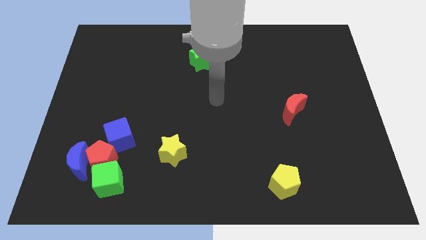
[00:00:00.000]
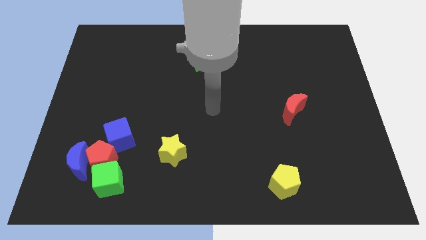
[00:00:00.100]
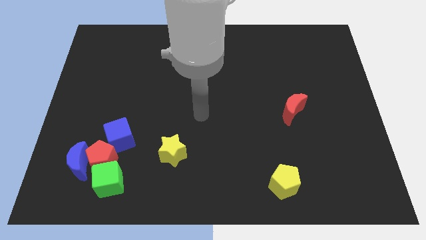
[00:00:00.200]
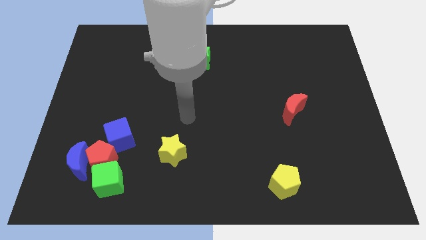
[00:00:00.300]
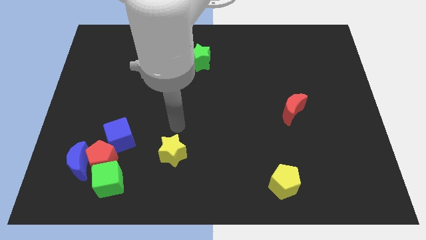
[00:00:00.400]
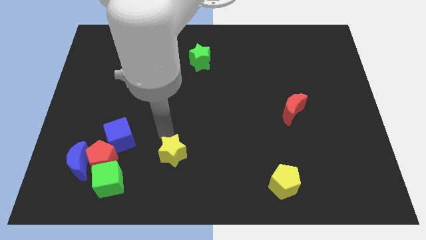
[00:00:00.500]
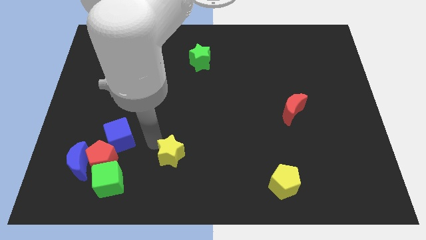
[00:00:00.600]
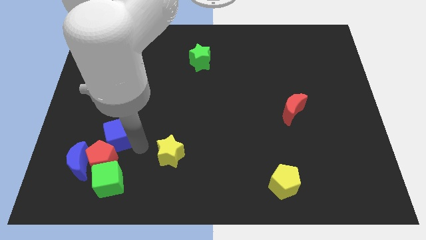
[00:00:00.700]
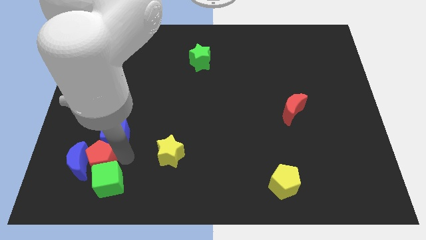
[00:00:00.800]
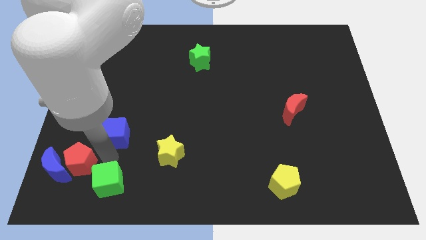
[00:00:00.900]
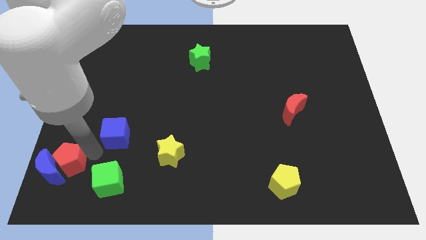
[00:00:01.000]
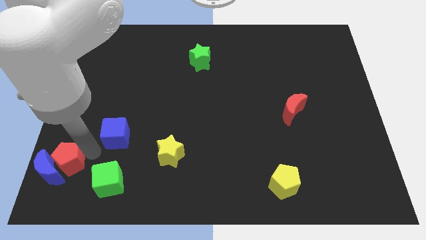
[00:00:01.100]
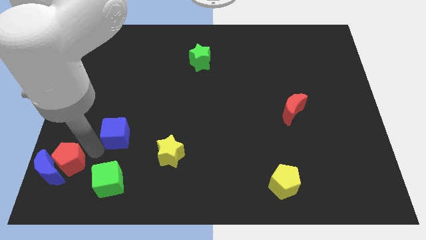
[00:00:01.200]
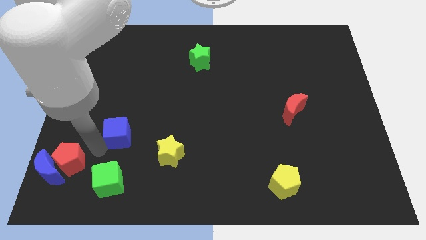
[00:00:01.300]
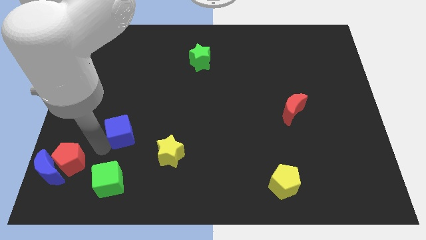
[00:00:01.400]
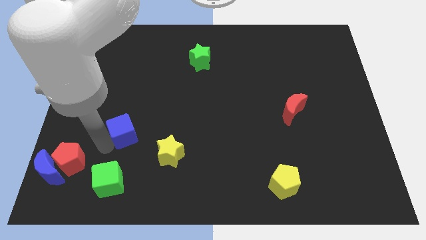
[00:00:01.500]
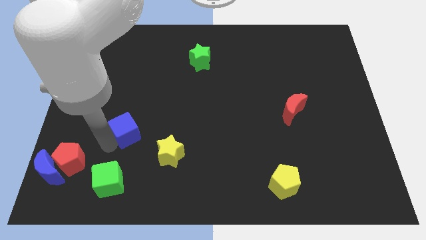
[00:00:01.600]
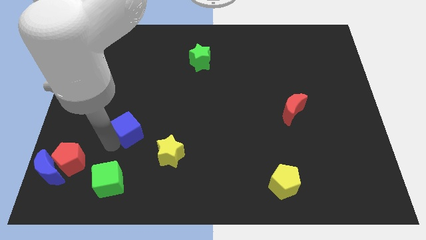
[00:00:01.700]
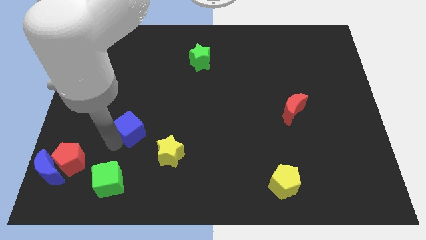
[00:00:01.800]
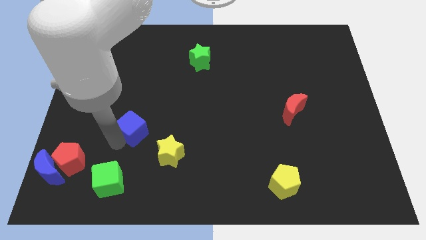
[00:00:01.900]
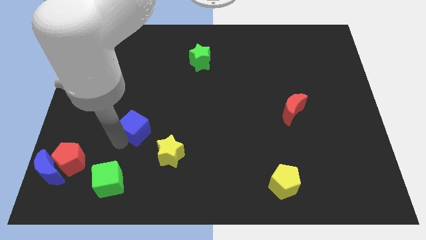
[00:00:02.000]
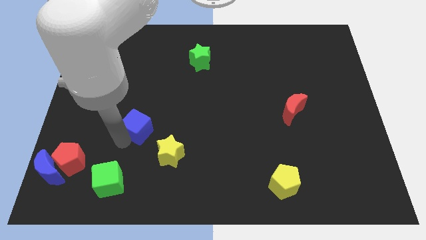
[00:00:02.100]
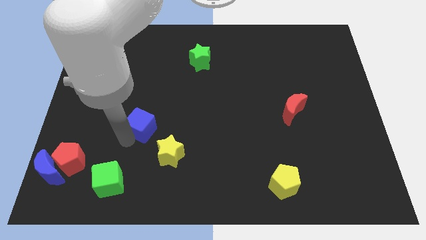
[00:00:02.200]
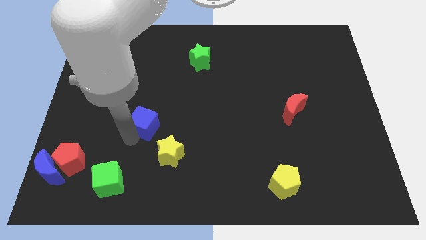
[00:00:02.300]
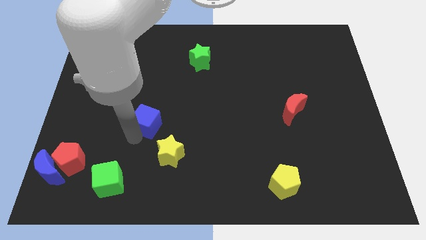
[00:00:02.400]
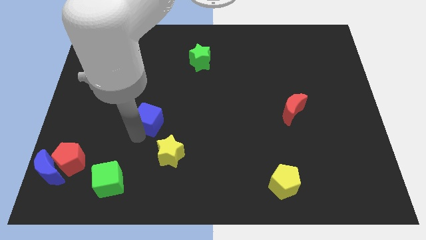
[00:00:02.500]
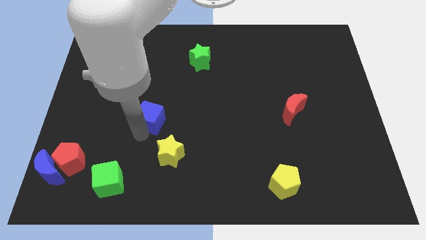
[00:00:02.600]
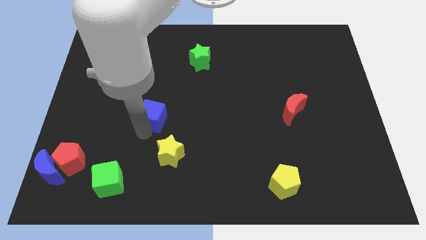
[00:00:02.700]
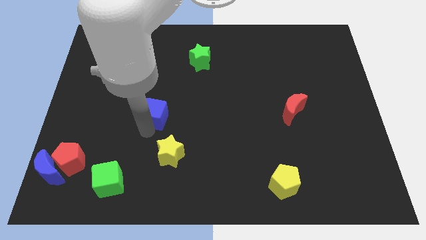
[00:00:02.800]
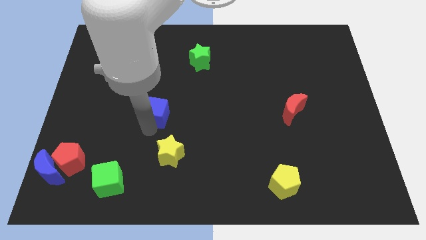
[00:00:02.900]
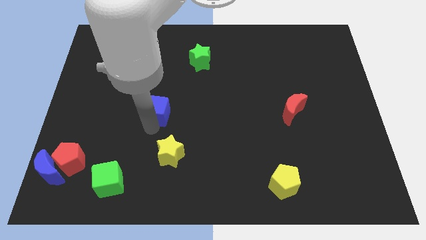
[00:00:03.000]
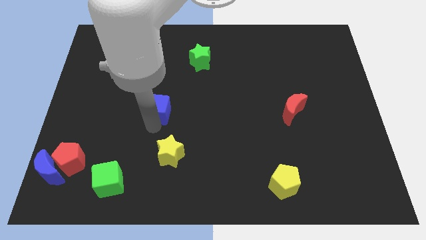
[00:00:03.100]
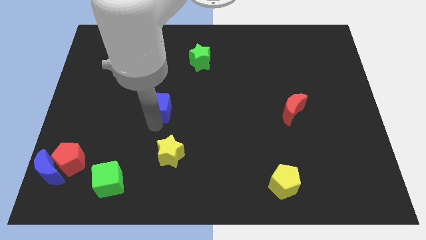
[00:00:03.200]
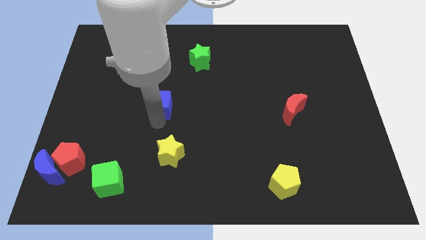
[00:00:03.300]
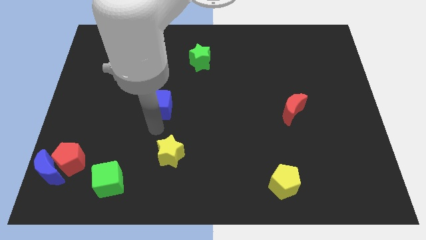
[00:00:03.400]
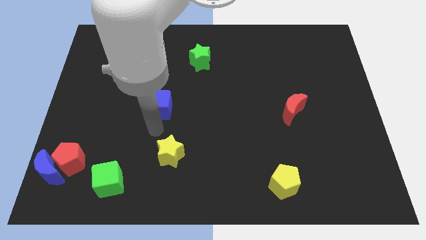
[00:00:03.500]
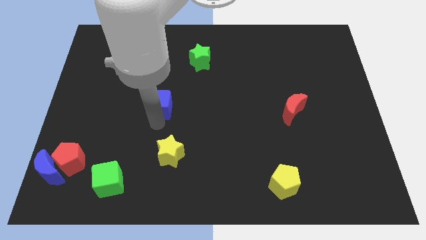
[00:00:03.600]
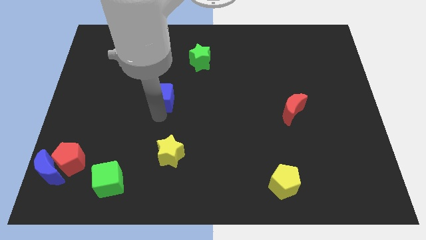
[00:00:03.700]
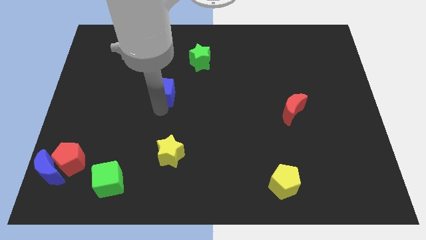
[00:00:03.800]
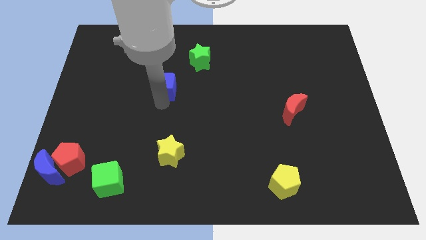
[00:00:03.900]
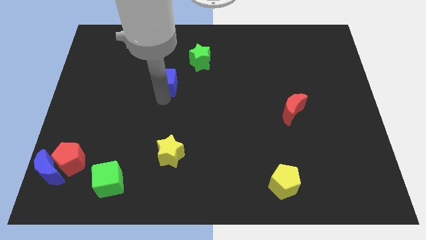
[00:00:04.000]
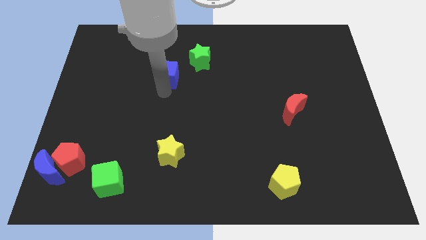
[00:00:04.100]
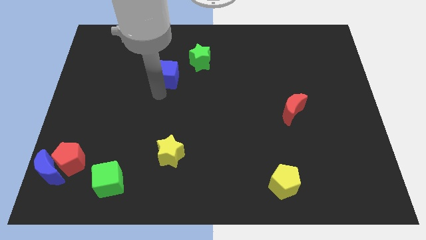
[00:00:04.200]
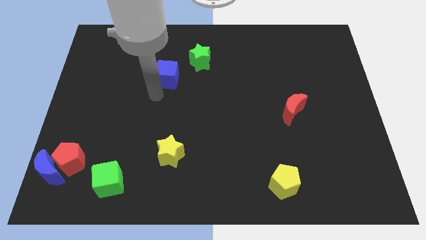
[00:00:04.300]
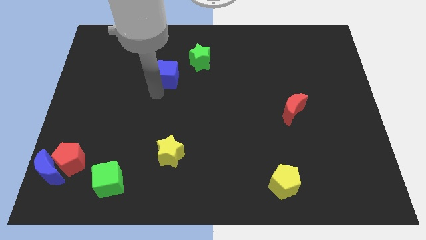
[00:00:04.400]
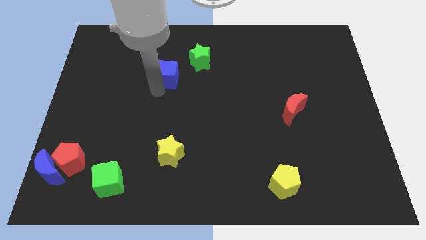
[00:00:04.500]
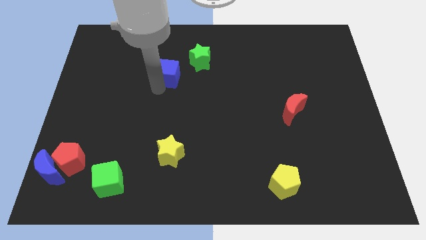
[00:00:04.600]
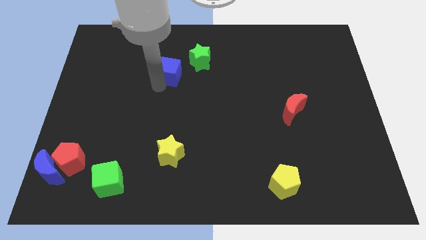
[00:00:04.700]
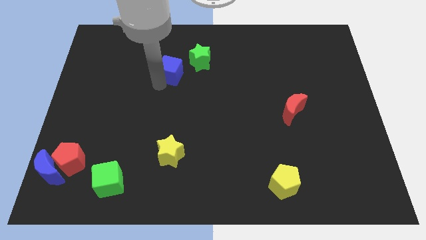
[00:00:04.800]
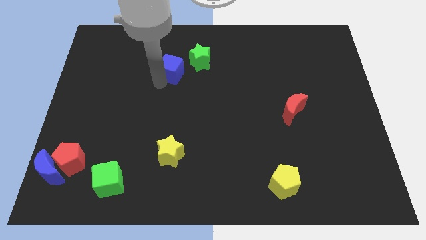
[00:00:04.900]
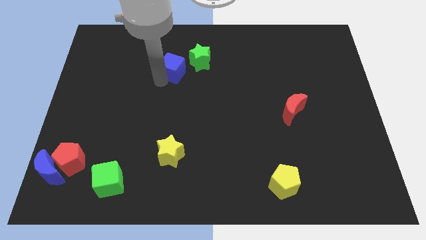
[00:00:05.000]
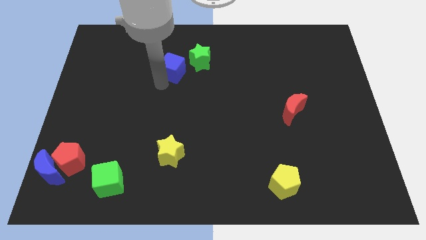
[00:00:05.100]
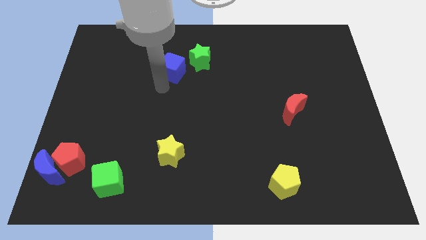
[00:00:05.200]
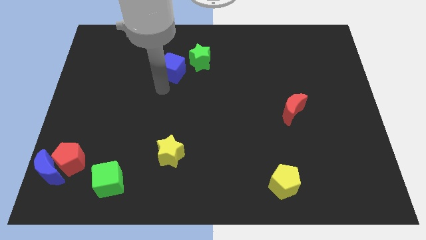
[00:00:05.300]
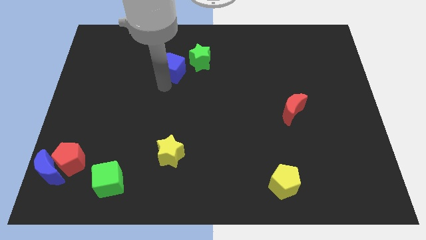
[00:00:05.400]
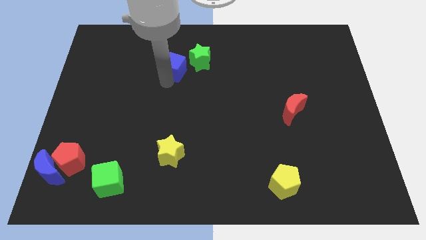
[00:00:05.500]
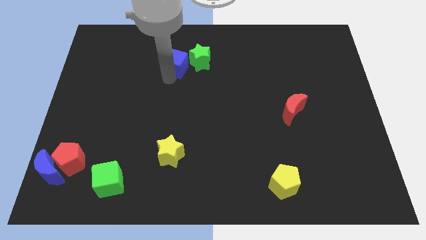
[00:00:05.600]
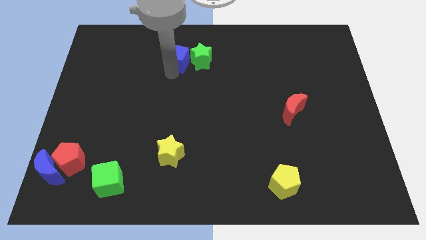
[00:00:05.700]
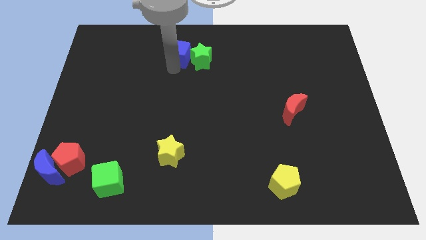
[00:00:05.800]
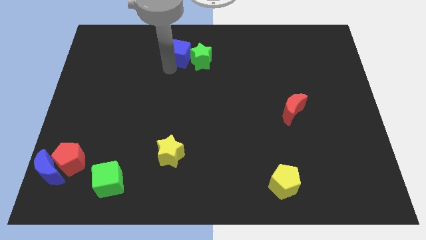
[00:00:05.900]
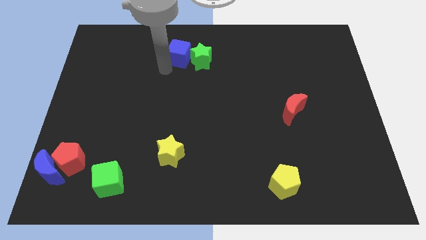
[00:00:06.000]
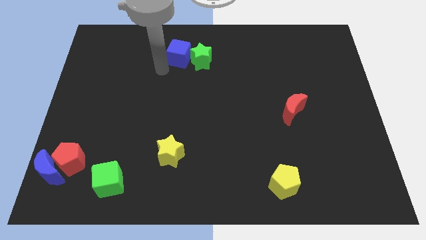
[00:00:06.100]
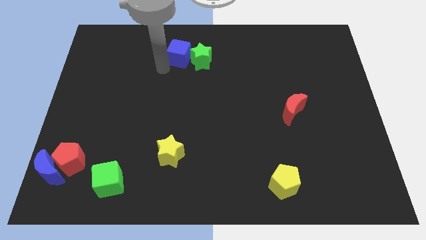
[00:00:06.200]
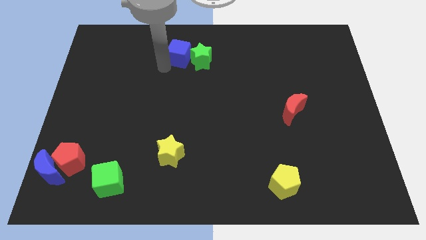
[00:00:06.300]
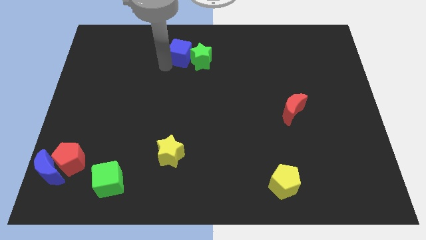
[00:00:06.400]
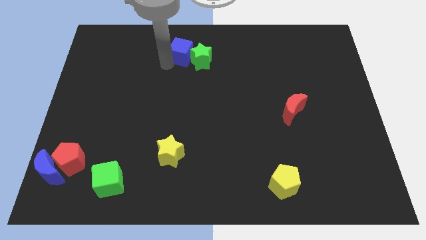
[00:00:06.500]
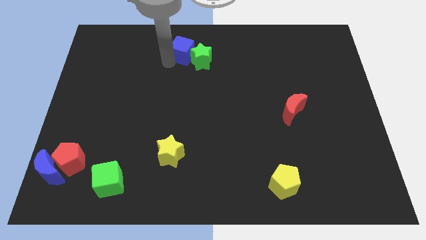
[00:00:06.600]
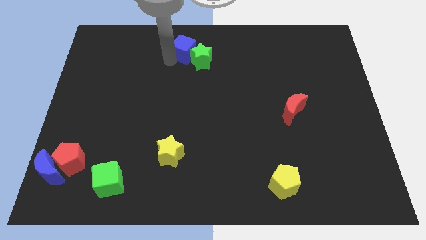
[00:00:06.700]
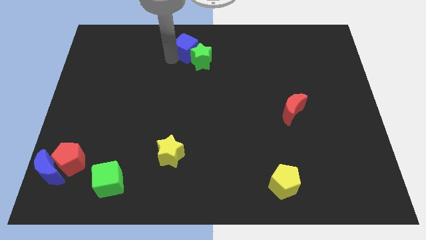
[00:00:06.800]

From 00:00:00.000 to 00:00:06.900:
slide the blue cube to the top

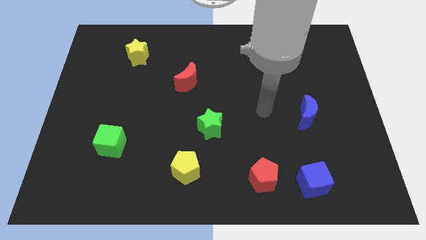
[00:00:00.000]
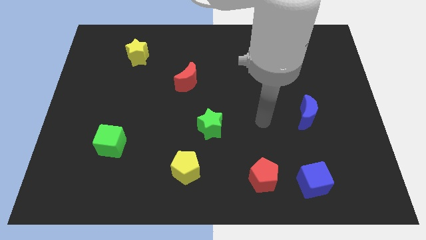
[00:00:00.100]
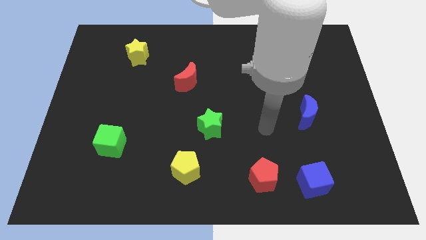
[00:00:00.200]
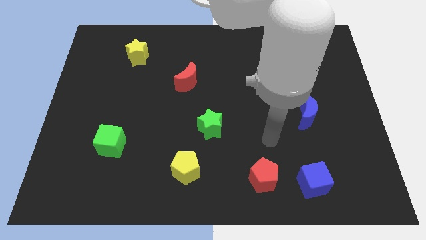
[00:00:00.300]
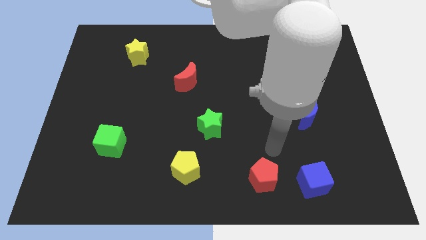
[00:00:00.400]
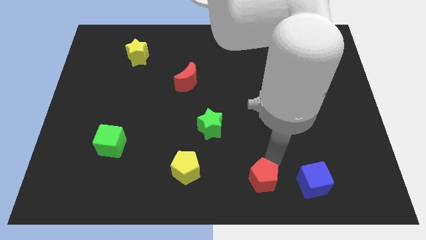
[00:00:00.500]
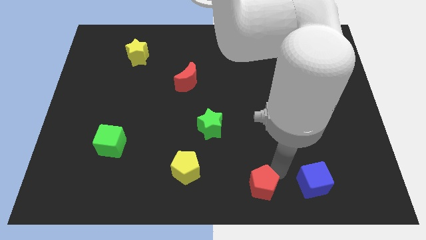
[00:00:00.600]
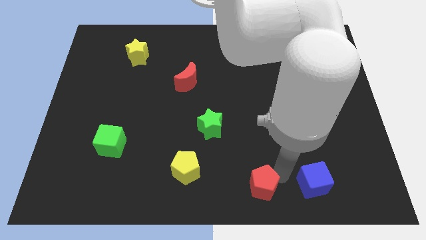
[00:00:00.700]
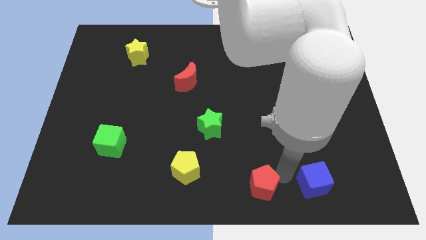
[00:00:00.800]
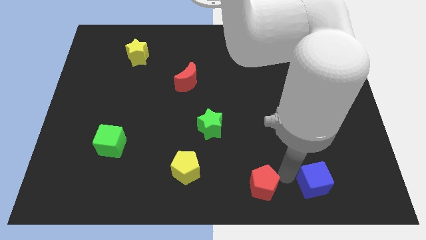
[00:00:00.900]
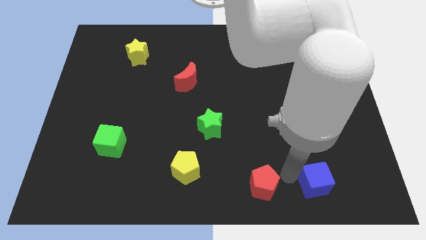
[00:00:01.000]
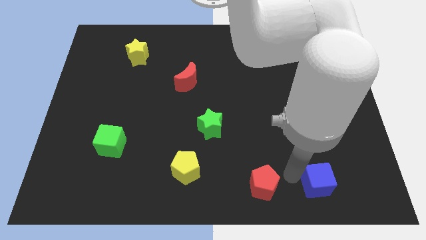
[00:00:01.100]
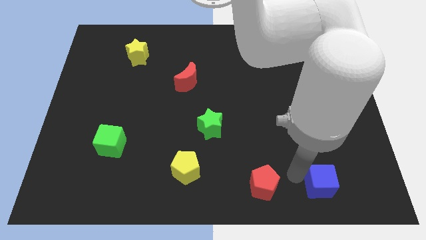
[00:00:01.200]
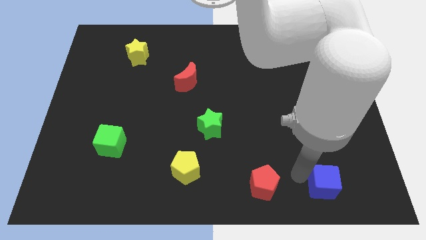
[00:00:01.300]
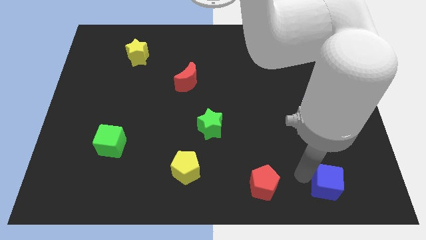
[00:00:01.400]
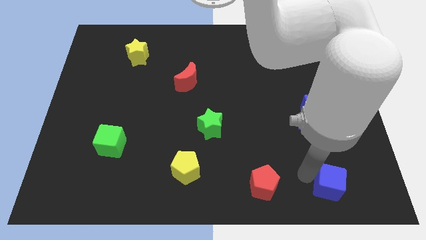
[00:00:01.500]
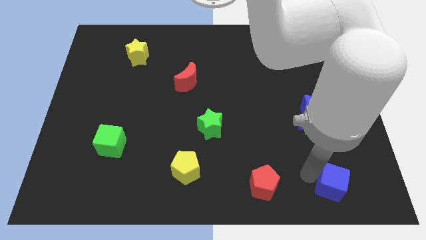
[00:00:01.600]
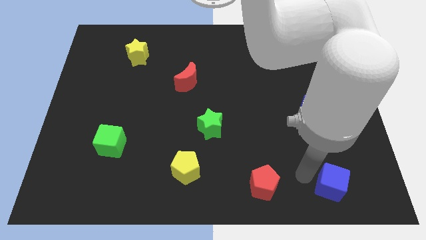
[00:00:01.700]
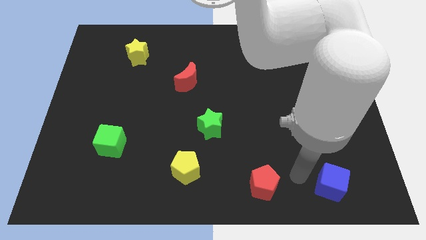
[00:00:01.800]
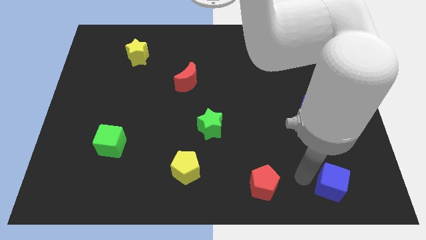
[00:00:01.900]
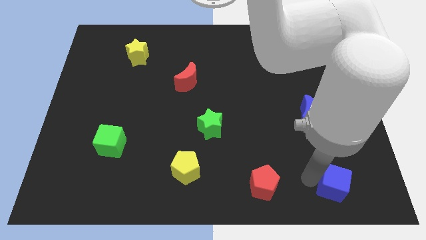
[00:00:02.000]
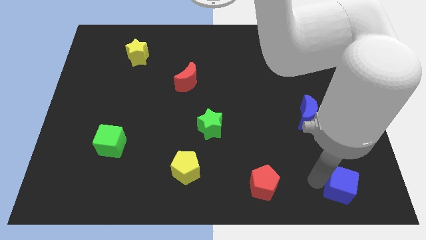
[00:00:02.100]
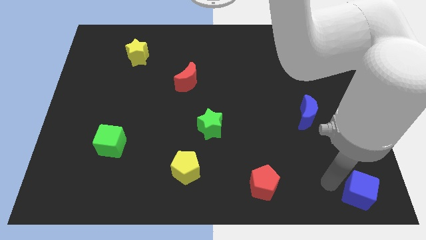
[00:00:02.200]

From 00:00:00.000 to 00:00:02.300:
slide the blue cube to the bottom right corner
